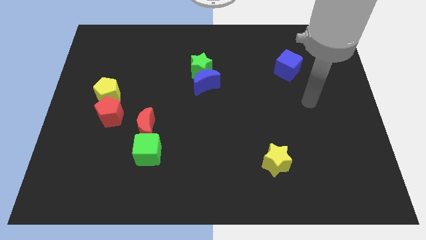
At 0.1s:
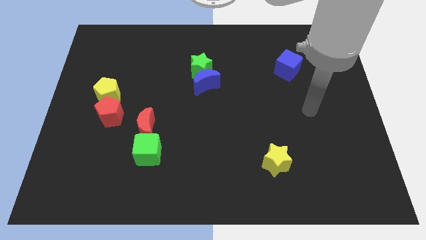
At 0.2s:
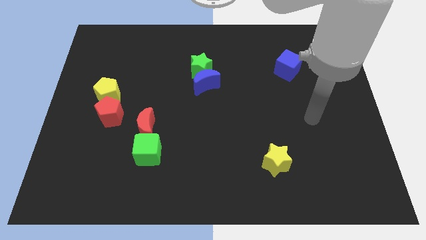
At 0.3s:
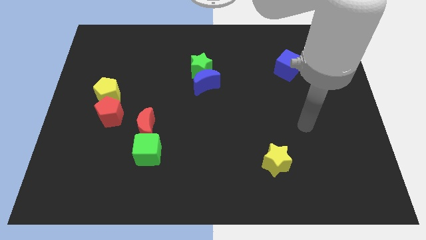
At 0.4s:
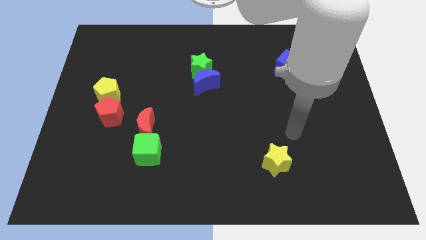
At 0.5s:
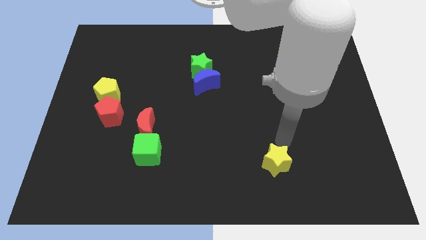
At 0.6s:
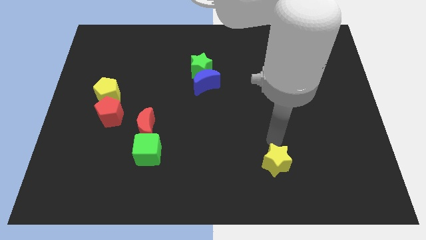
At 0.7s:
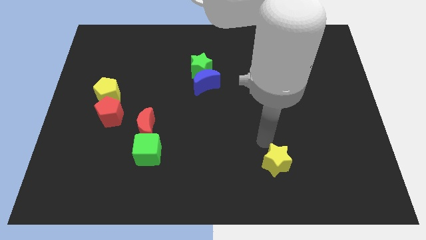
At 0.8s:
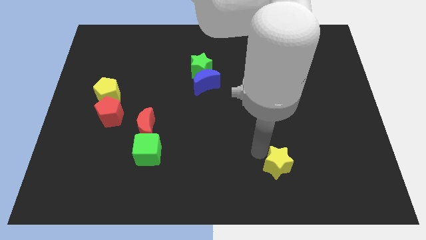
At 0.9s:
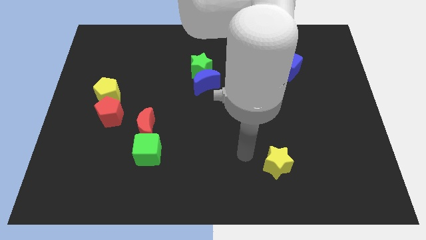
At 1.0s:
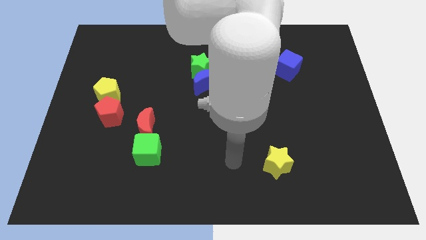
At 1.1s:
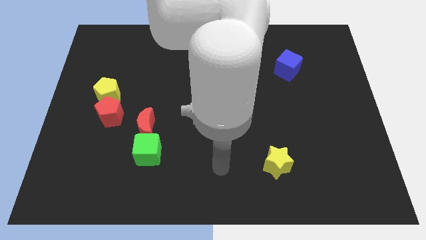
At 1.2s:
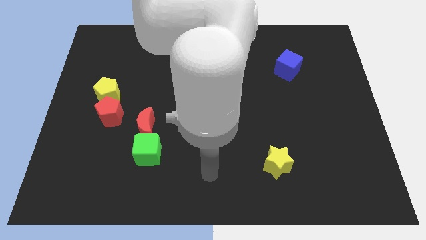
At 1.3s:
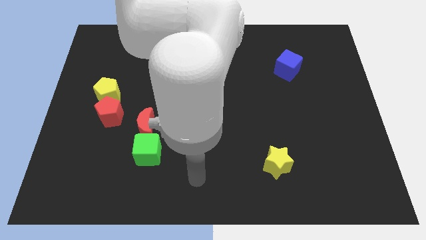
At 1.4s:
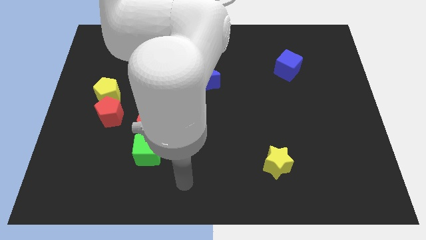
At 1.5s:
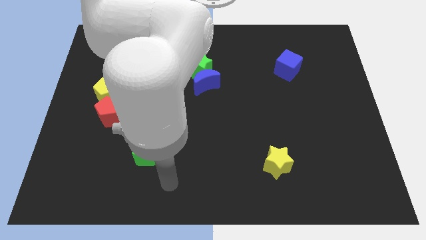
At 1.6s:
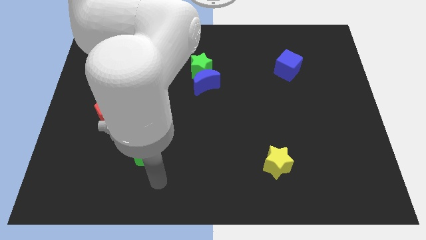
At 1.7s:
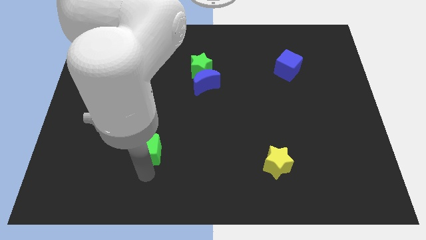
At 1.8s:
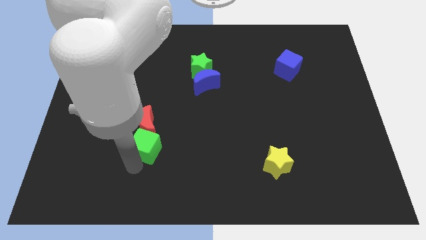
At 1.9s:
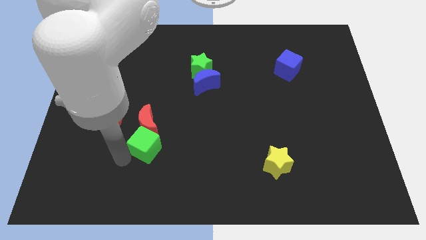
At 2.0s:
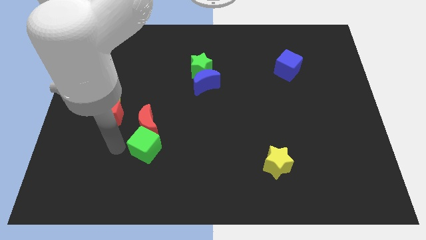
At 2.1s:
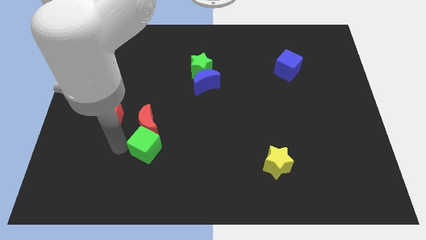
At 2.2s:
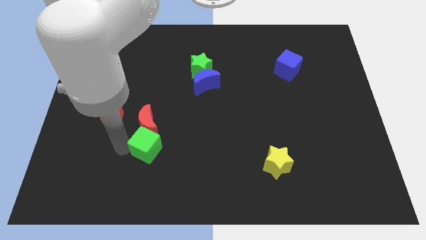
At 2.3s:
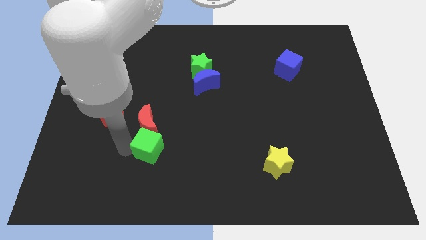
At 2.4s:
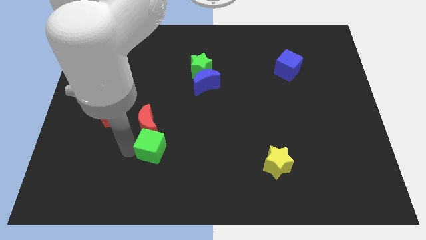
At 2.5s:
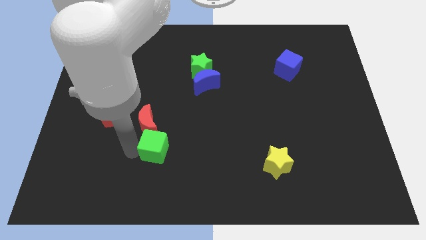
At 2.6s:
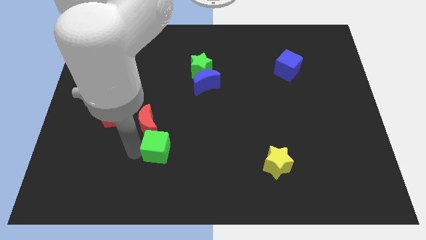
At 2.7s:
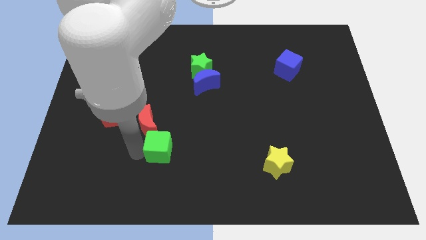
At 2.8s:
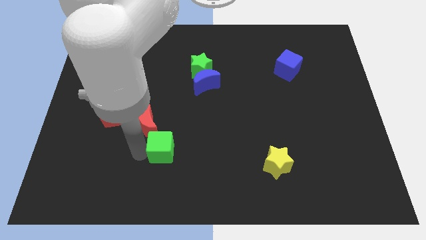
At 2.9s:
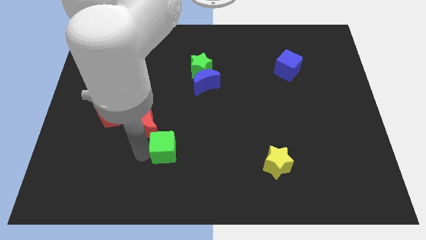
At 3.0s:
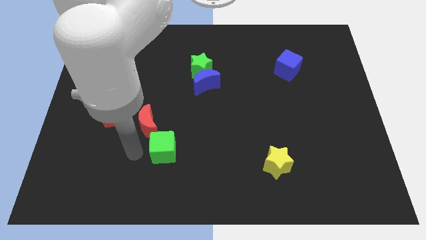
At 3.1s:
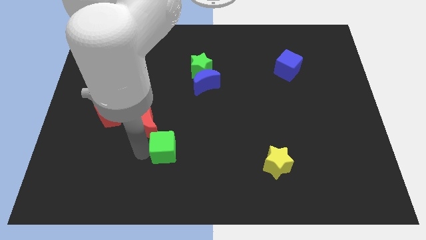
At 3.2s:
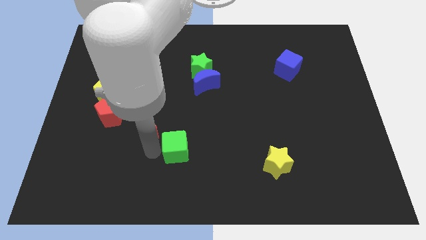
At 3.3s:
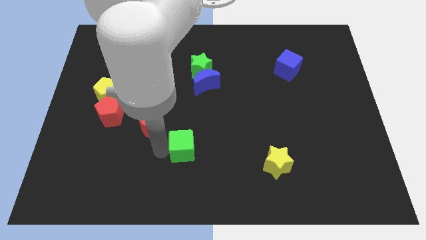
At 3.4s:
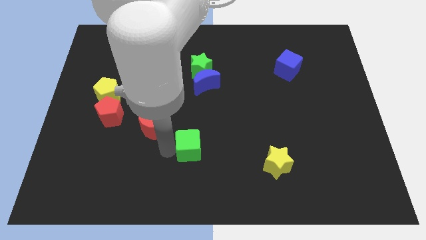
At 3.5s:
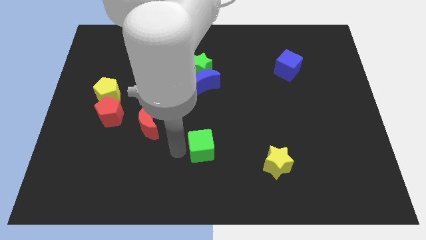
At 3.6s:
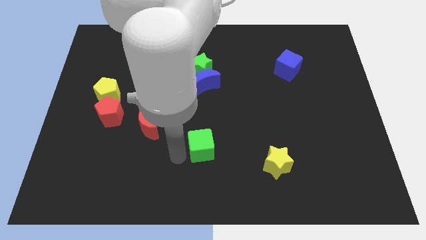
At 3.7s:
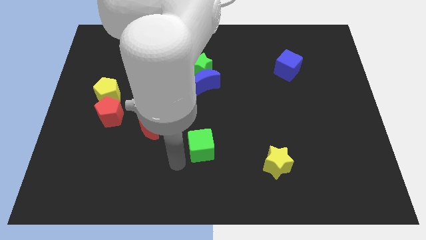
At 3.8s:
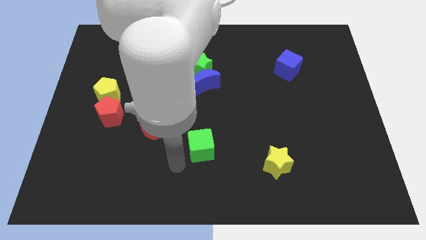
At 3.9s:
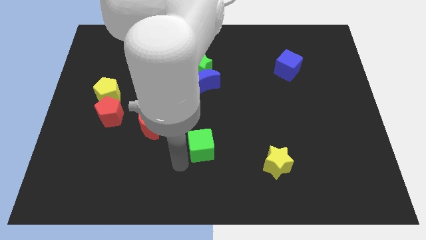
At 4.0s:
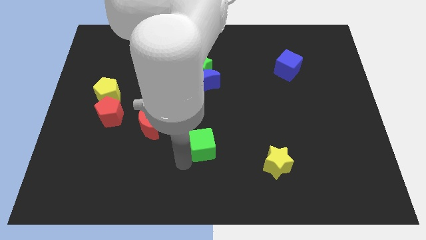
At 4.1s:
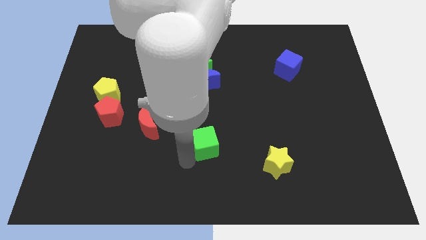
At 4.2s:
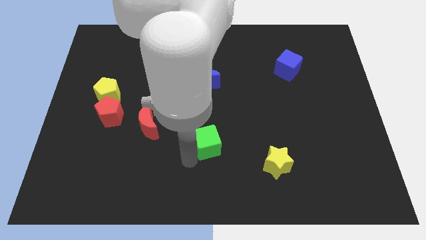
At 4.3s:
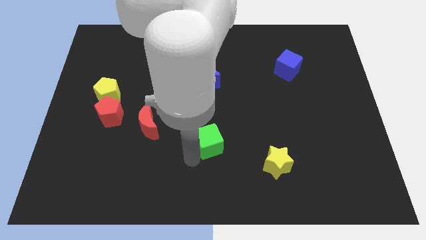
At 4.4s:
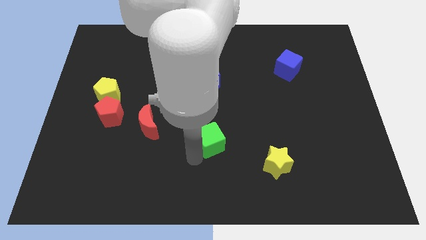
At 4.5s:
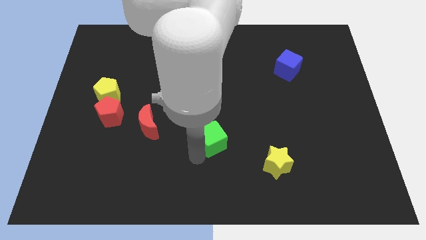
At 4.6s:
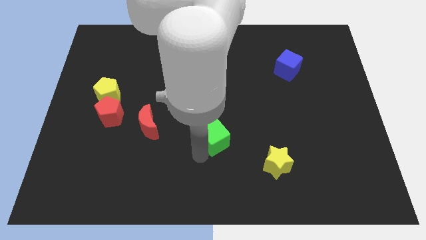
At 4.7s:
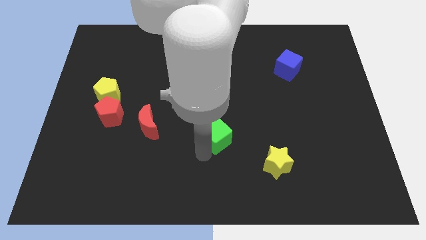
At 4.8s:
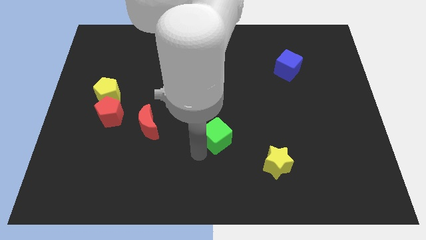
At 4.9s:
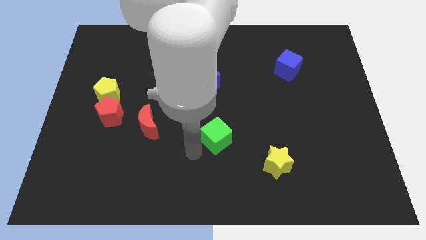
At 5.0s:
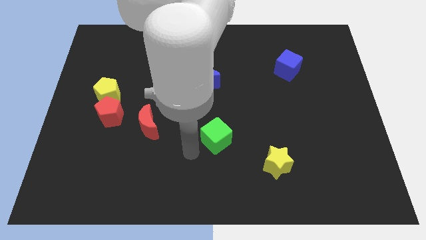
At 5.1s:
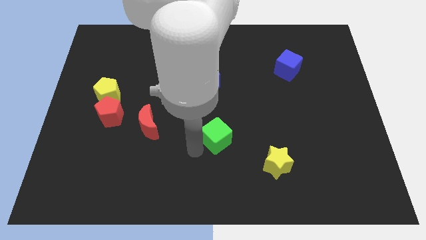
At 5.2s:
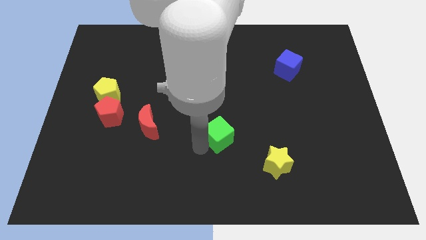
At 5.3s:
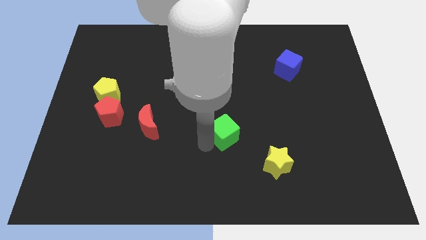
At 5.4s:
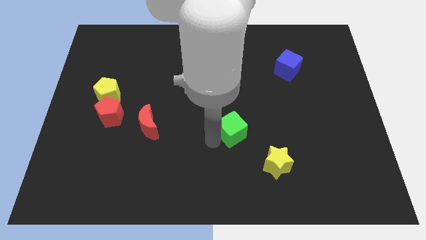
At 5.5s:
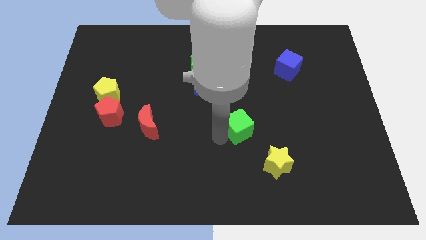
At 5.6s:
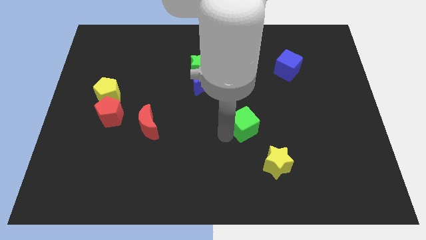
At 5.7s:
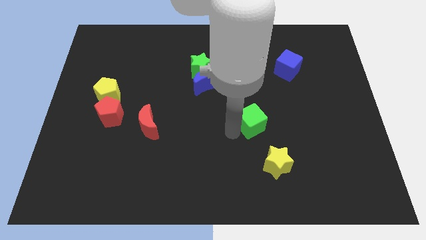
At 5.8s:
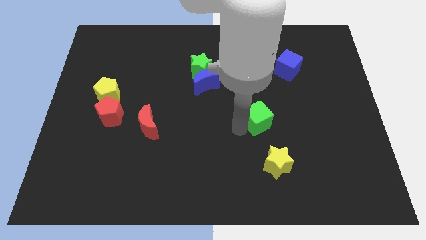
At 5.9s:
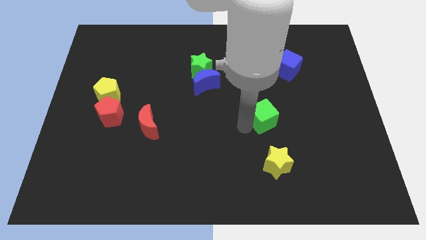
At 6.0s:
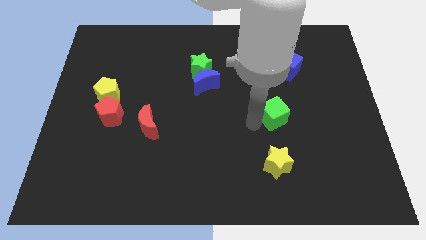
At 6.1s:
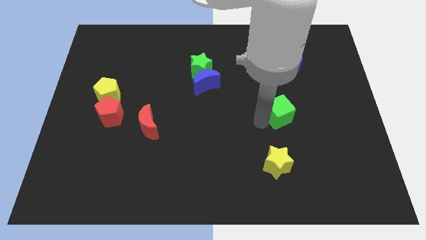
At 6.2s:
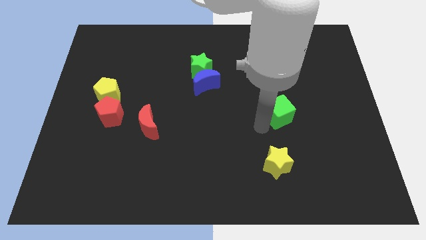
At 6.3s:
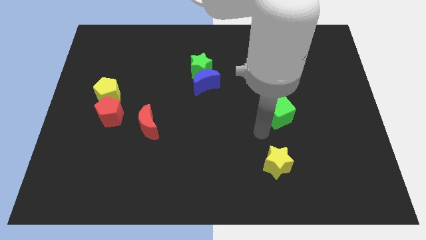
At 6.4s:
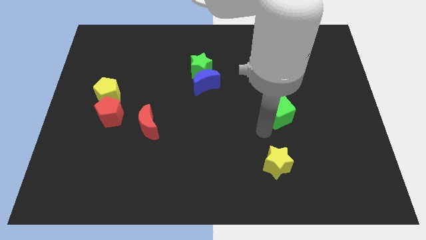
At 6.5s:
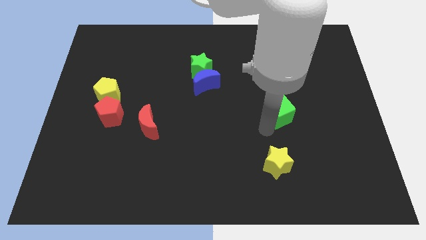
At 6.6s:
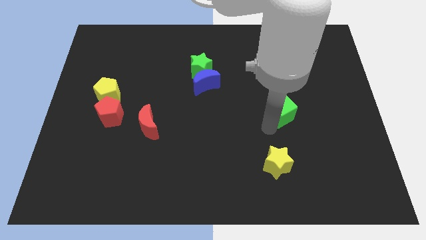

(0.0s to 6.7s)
move the green cube below the blue cube

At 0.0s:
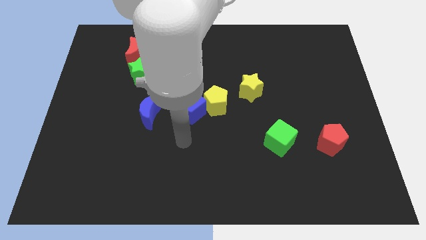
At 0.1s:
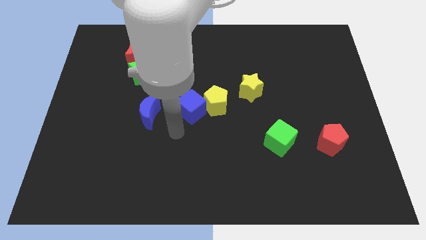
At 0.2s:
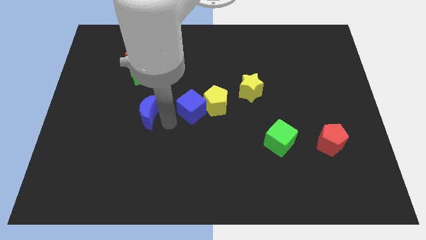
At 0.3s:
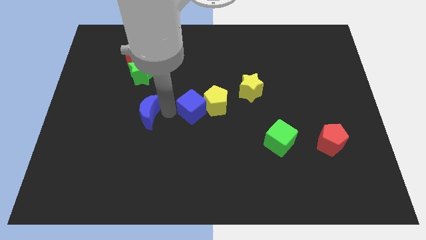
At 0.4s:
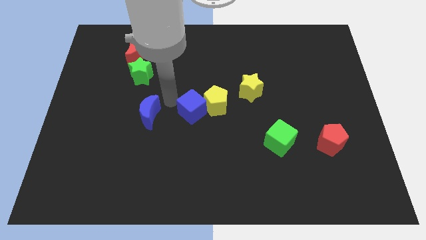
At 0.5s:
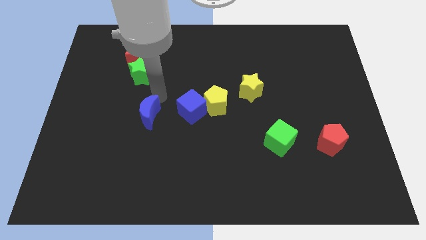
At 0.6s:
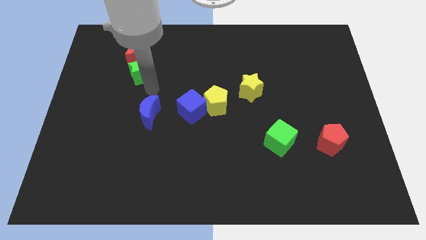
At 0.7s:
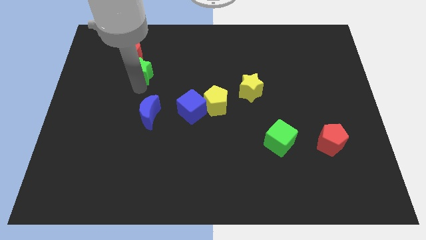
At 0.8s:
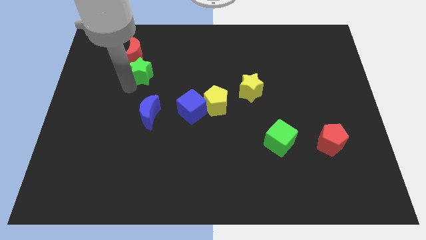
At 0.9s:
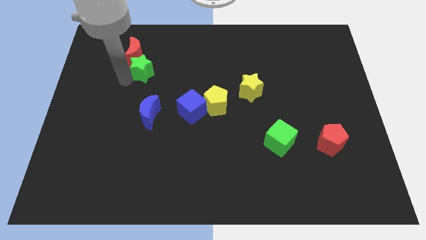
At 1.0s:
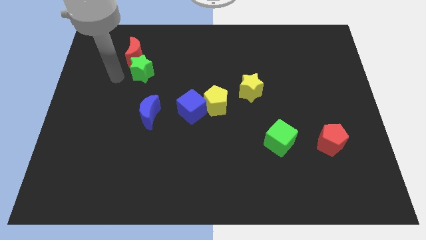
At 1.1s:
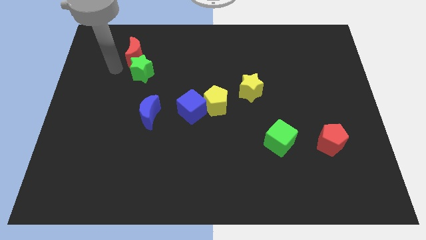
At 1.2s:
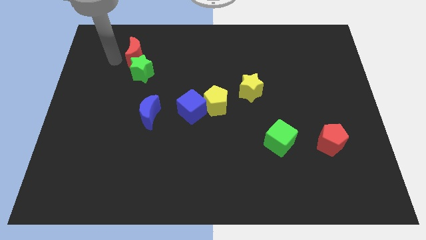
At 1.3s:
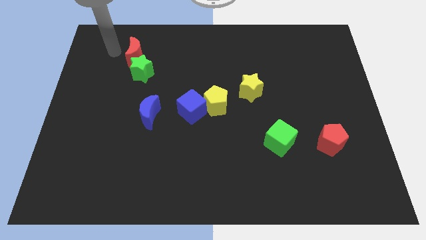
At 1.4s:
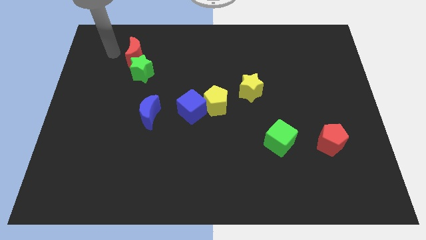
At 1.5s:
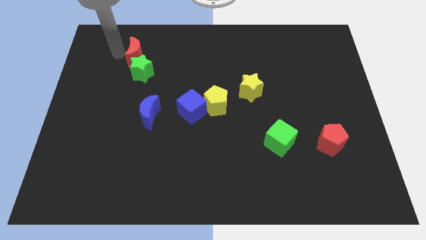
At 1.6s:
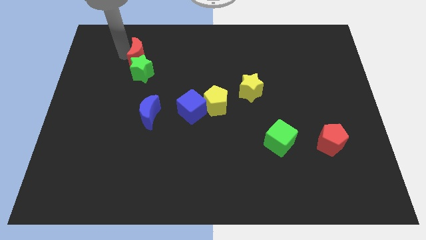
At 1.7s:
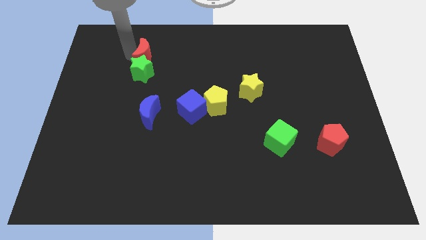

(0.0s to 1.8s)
move the red moon to the top right side of the green star
